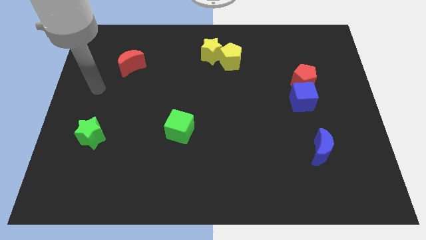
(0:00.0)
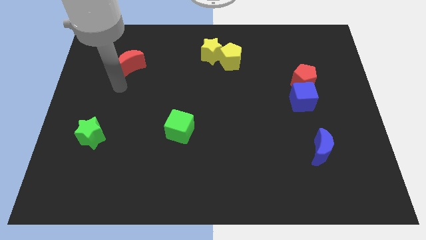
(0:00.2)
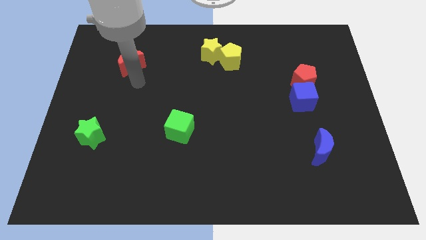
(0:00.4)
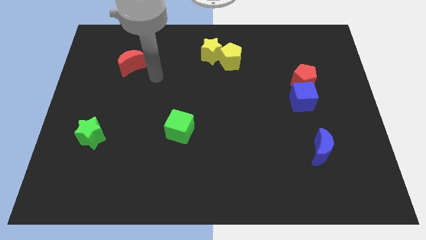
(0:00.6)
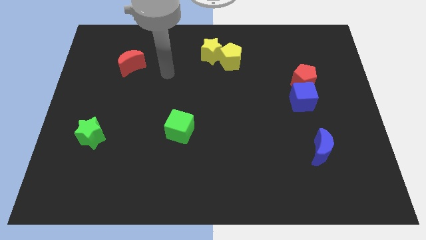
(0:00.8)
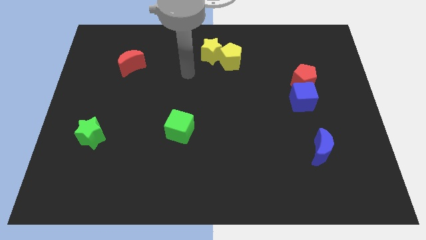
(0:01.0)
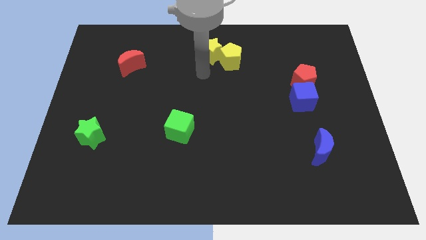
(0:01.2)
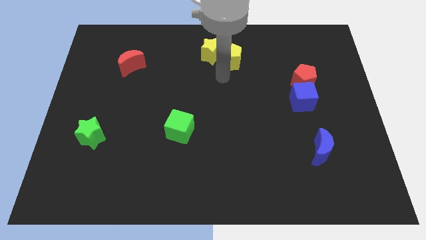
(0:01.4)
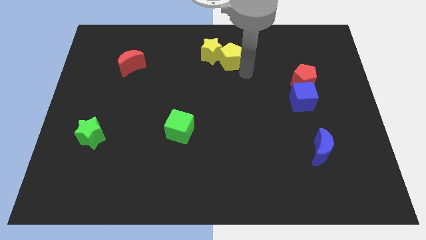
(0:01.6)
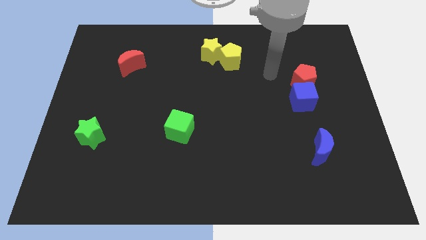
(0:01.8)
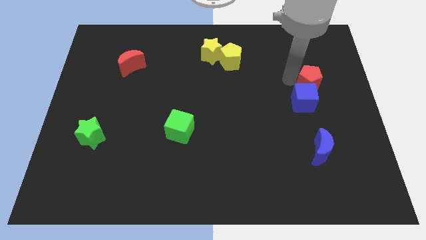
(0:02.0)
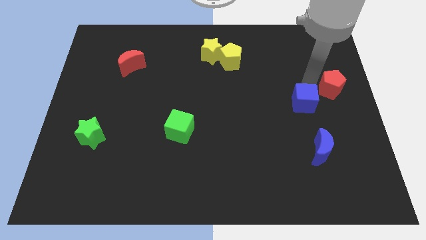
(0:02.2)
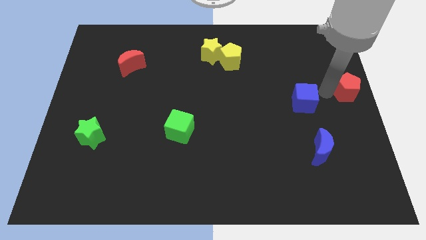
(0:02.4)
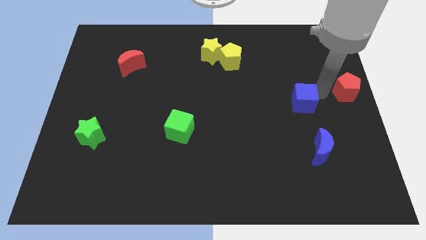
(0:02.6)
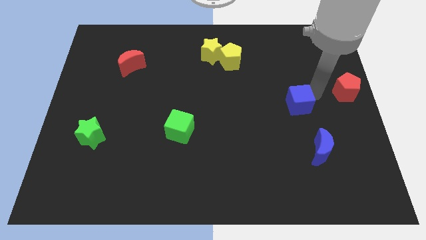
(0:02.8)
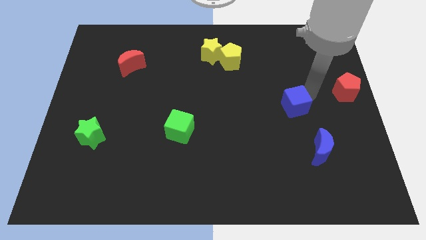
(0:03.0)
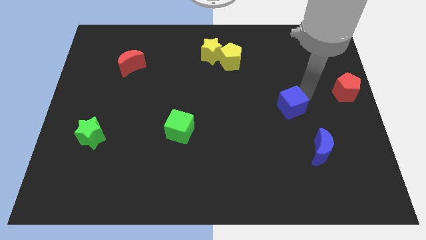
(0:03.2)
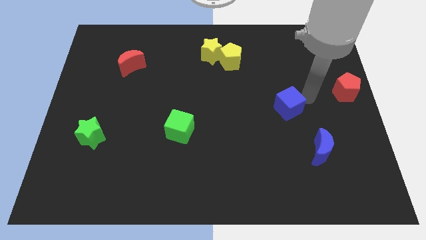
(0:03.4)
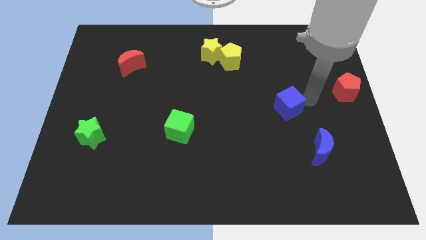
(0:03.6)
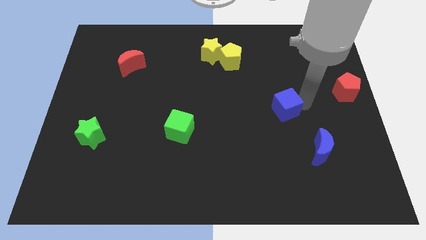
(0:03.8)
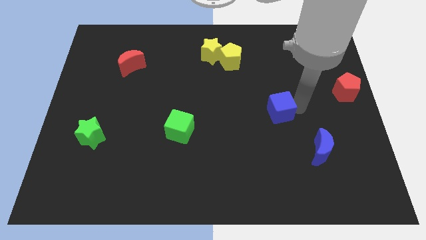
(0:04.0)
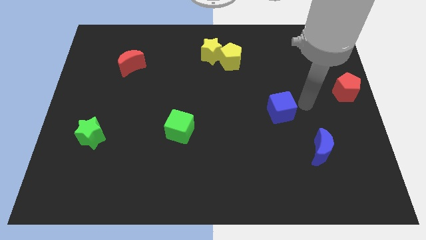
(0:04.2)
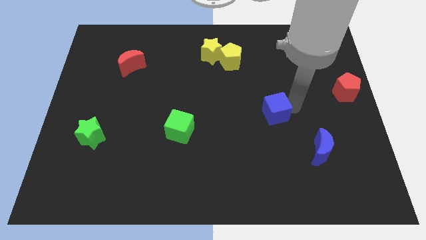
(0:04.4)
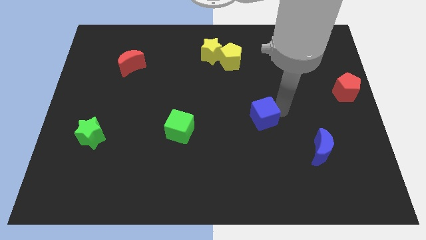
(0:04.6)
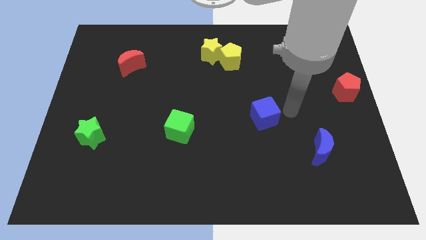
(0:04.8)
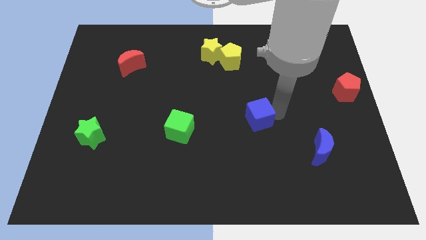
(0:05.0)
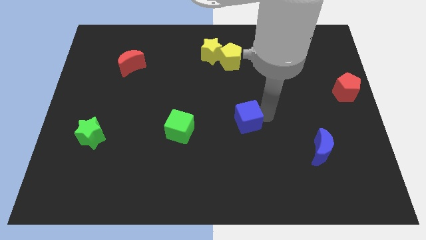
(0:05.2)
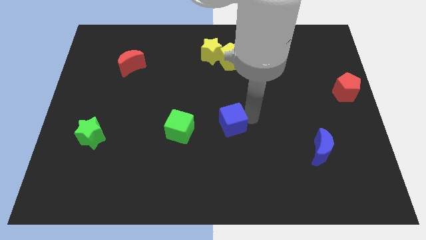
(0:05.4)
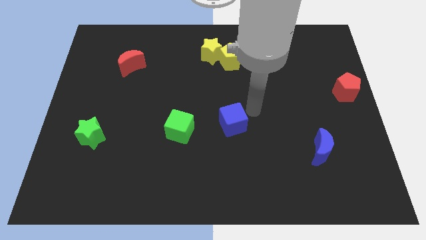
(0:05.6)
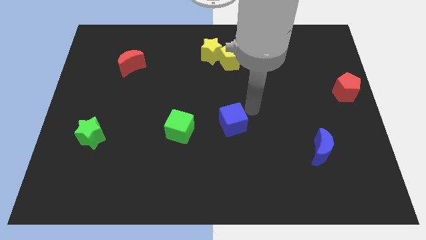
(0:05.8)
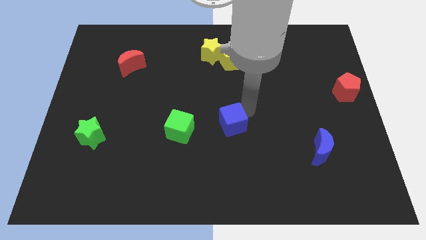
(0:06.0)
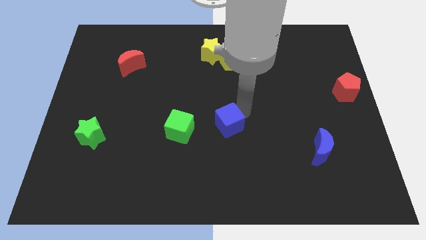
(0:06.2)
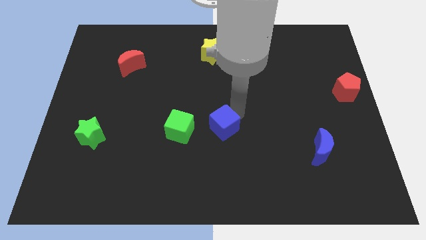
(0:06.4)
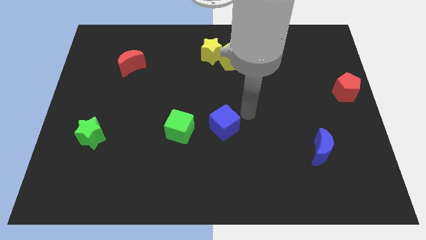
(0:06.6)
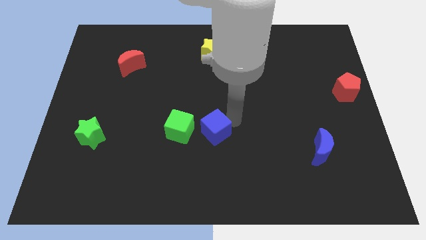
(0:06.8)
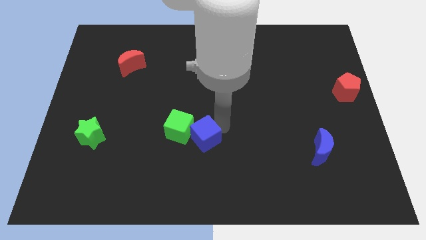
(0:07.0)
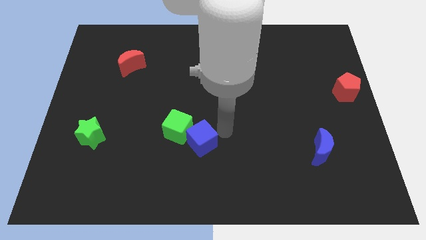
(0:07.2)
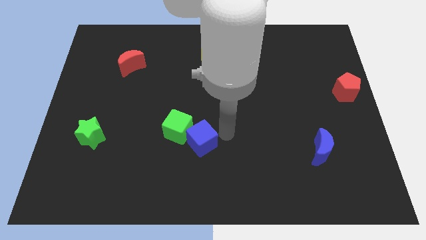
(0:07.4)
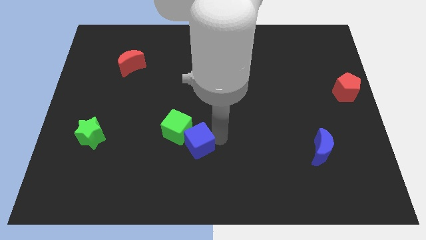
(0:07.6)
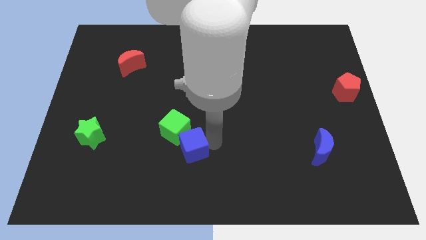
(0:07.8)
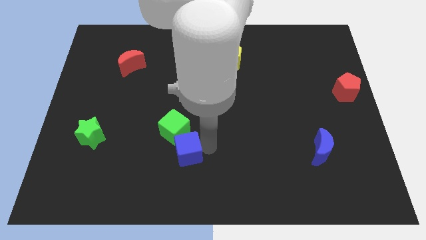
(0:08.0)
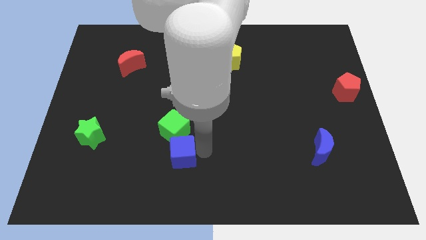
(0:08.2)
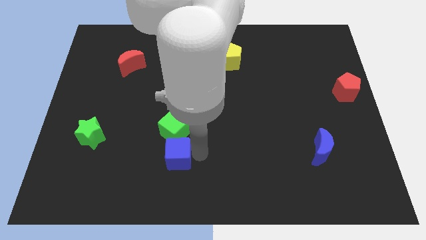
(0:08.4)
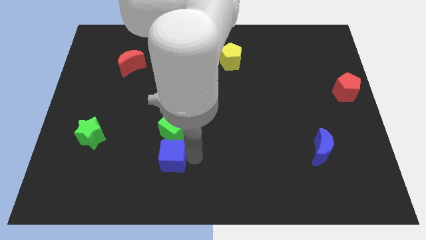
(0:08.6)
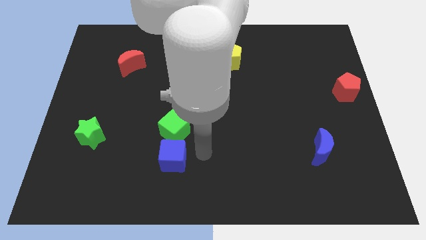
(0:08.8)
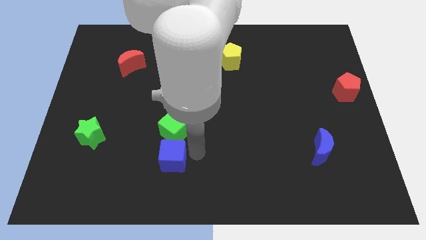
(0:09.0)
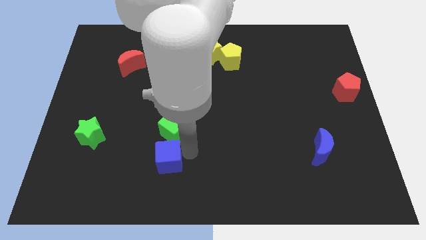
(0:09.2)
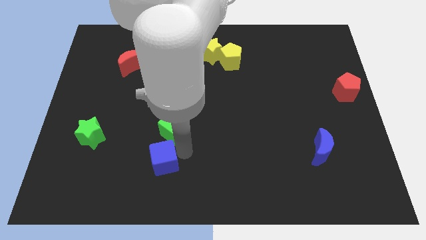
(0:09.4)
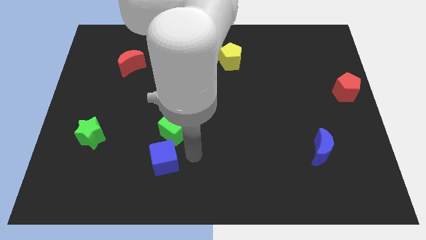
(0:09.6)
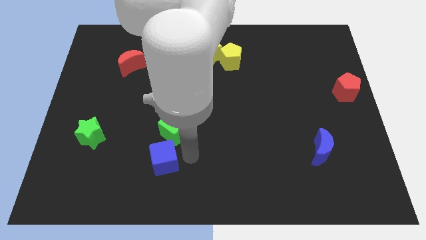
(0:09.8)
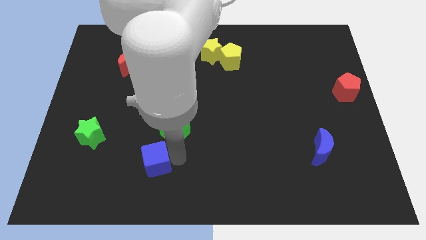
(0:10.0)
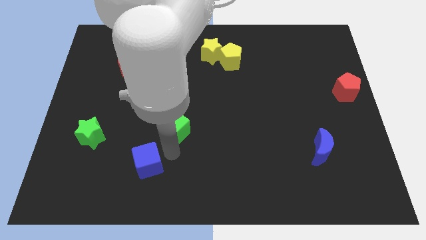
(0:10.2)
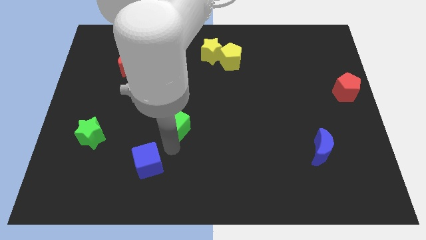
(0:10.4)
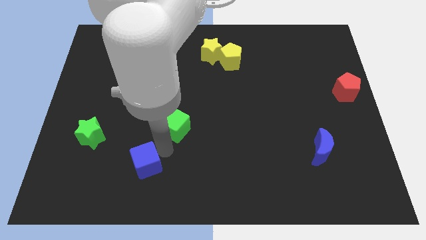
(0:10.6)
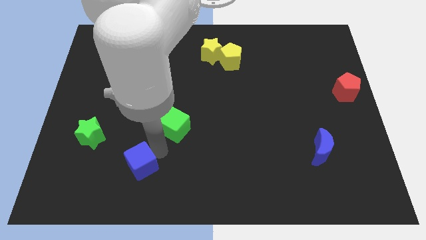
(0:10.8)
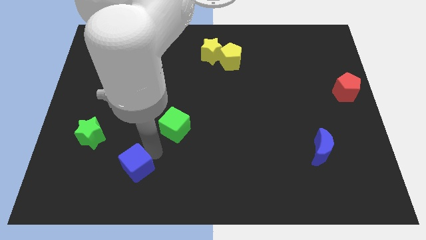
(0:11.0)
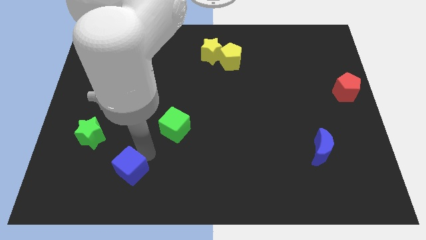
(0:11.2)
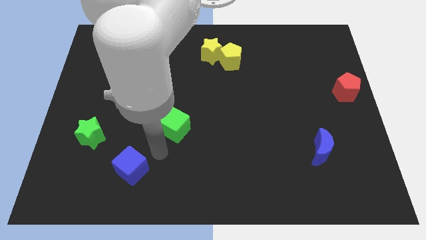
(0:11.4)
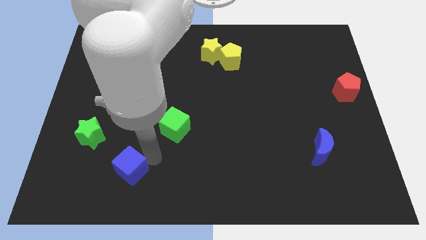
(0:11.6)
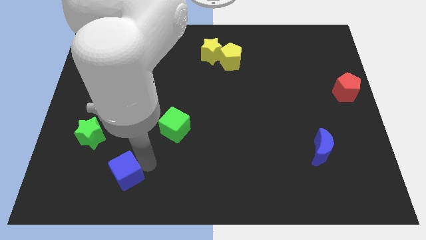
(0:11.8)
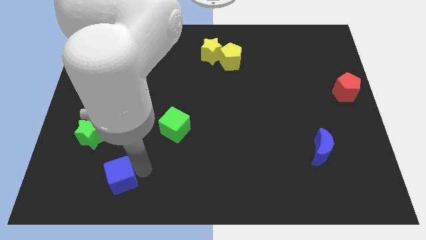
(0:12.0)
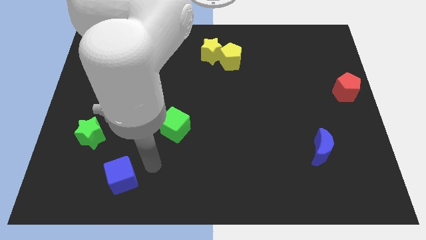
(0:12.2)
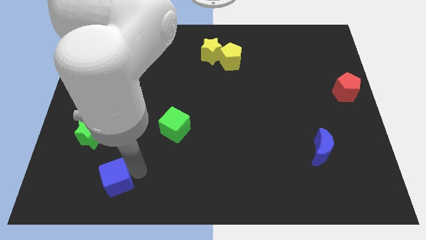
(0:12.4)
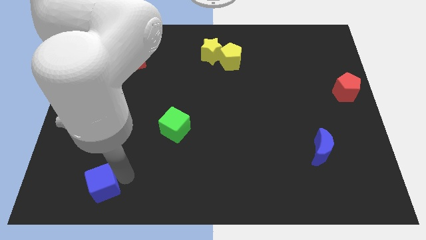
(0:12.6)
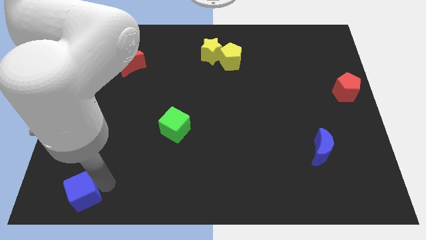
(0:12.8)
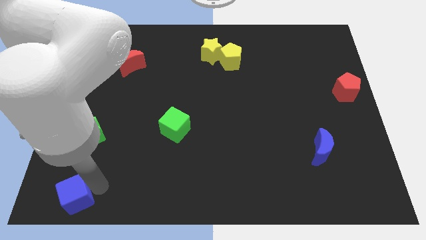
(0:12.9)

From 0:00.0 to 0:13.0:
slide the blue cube to the bottom left
